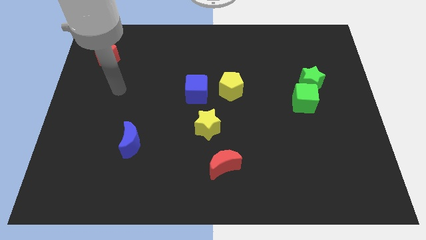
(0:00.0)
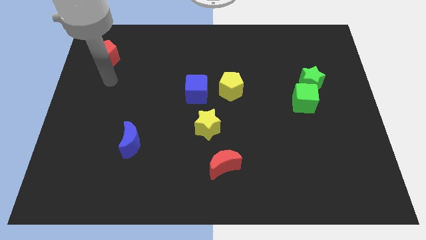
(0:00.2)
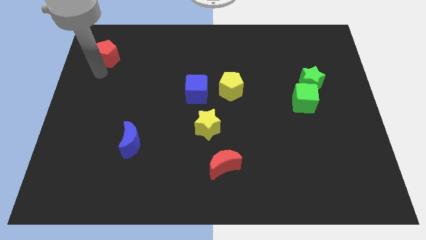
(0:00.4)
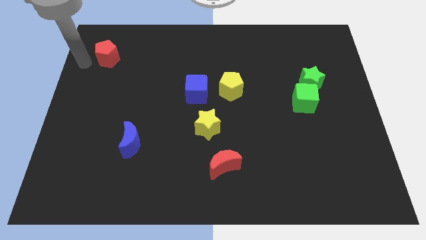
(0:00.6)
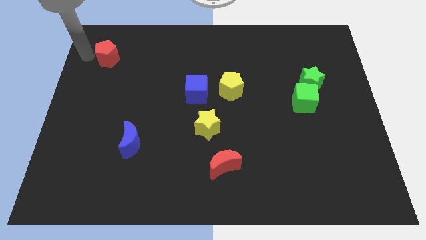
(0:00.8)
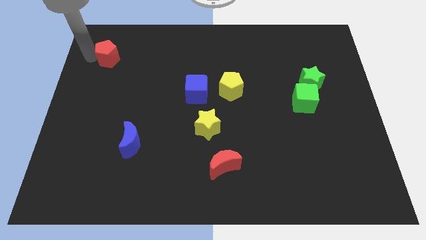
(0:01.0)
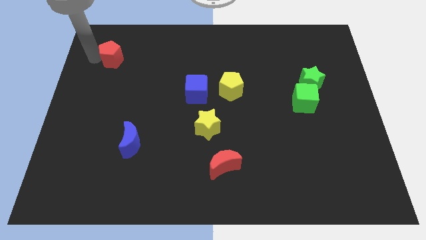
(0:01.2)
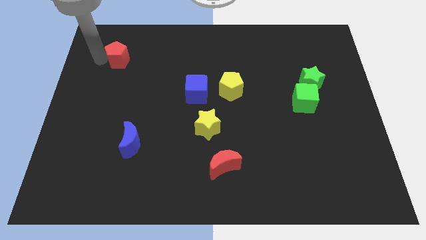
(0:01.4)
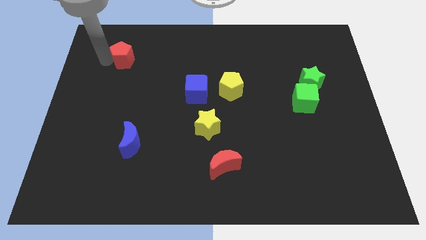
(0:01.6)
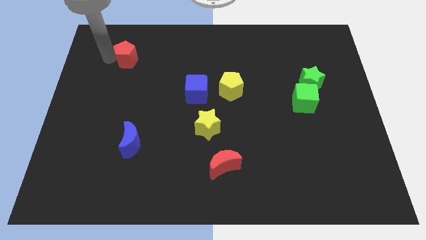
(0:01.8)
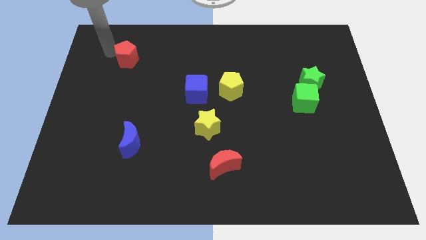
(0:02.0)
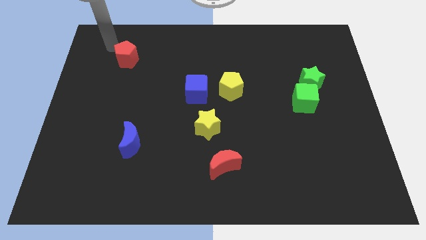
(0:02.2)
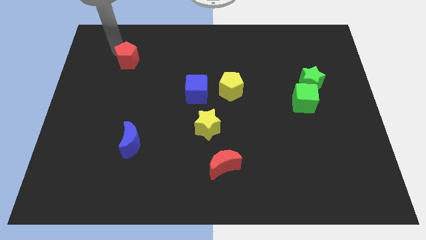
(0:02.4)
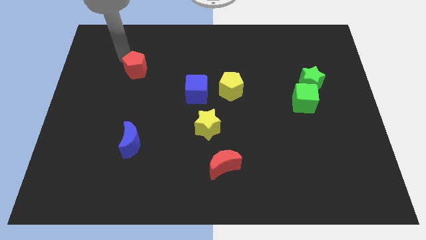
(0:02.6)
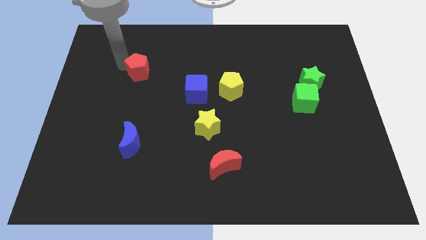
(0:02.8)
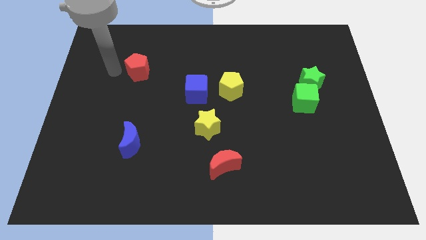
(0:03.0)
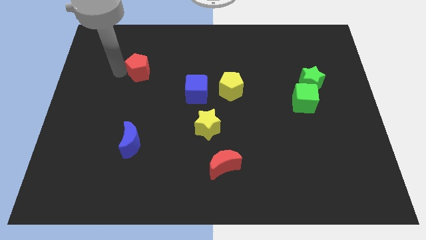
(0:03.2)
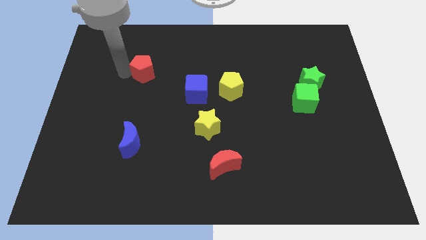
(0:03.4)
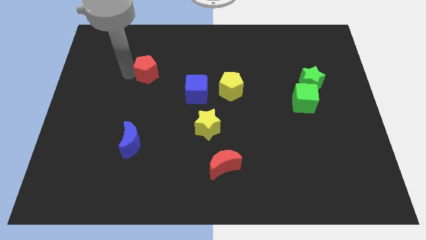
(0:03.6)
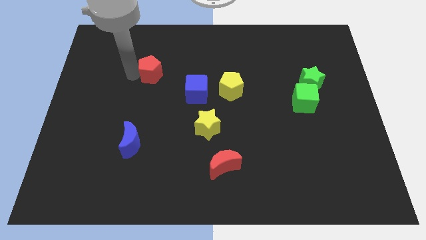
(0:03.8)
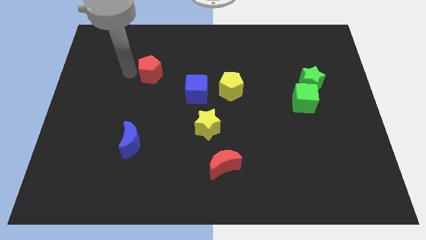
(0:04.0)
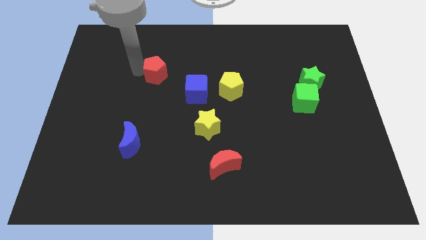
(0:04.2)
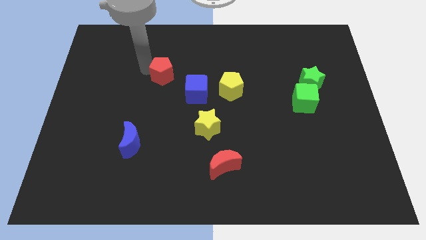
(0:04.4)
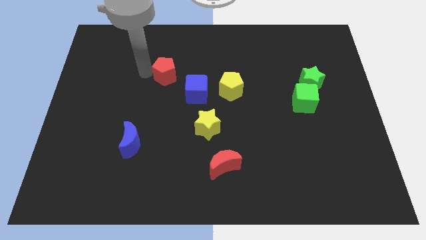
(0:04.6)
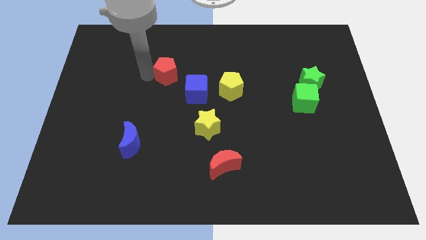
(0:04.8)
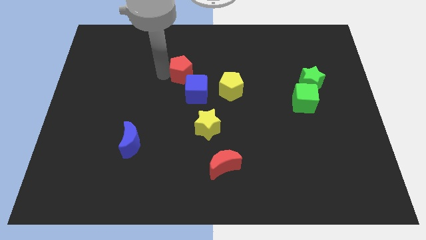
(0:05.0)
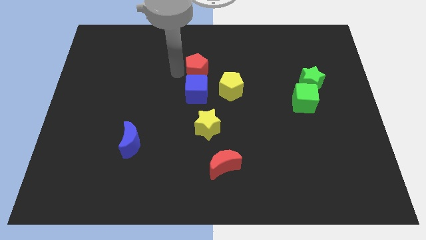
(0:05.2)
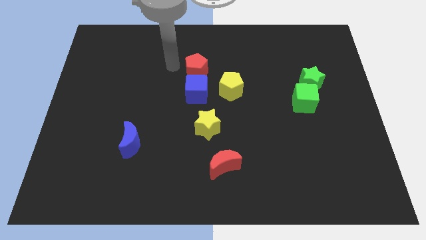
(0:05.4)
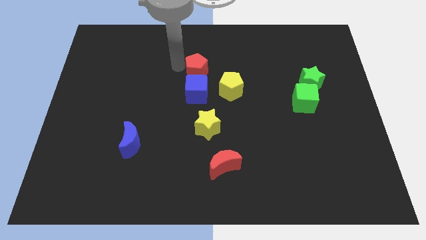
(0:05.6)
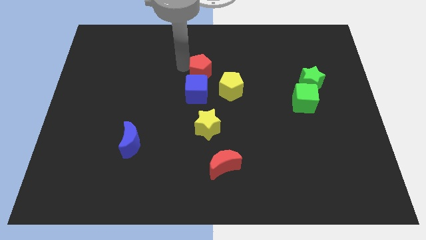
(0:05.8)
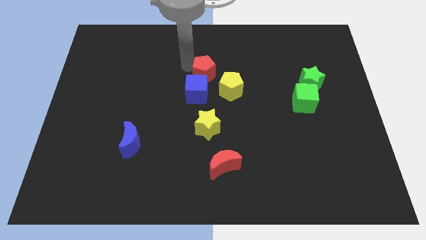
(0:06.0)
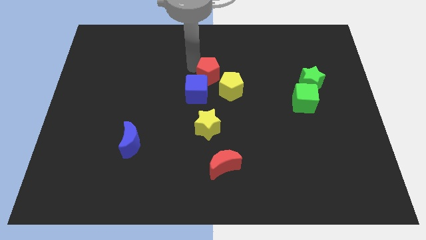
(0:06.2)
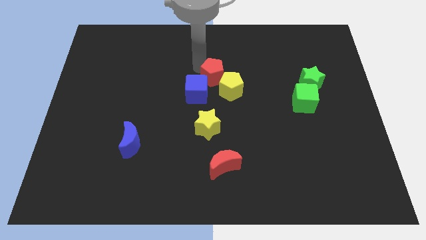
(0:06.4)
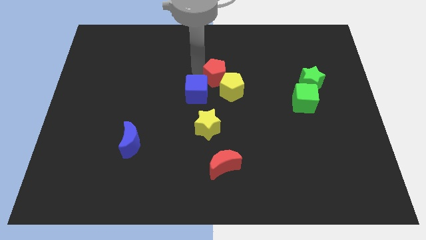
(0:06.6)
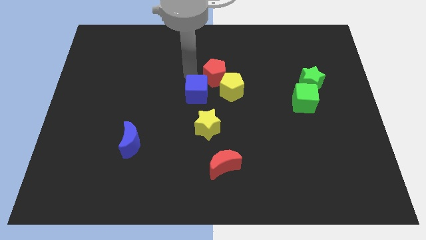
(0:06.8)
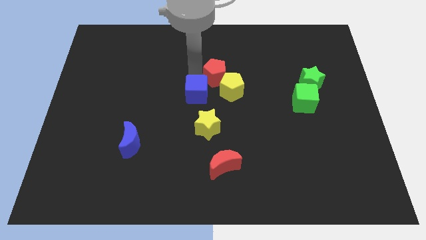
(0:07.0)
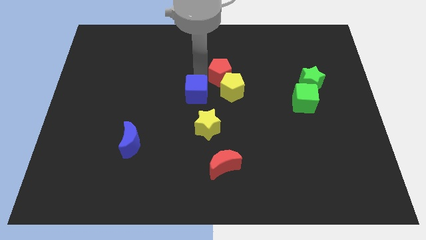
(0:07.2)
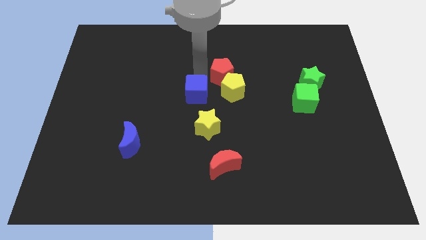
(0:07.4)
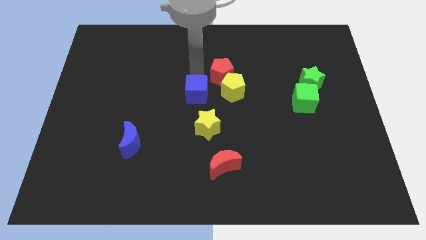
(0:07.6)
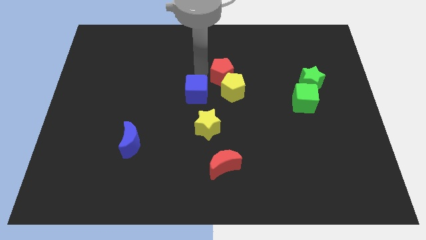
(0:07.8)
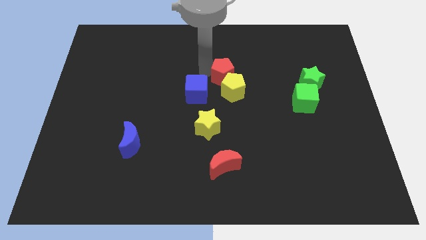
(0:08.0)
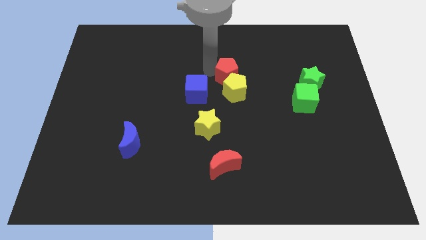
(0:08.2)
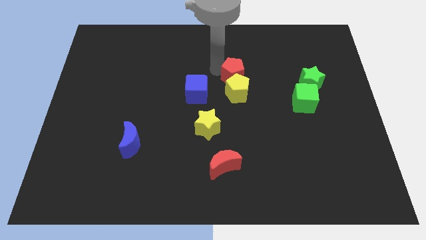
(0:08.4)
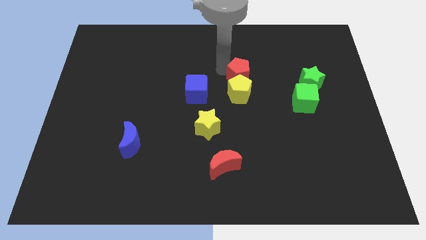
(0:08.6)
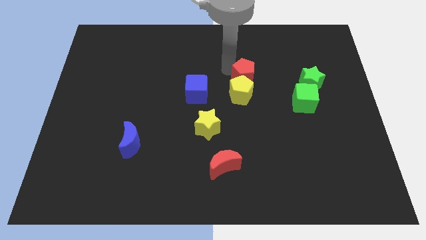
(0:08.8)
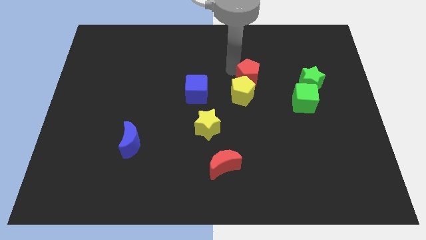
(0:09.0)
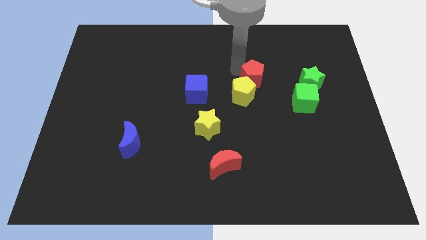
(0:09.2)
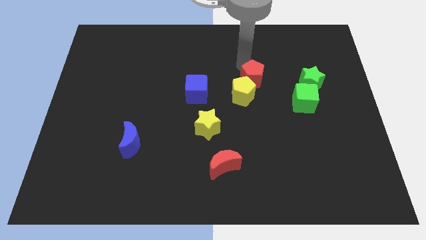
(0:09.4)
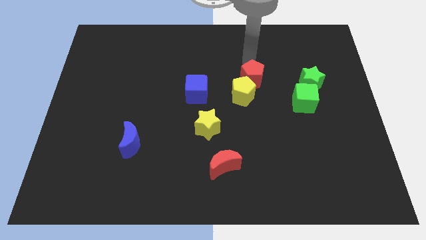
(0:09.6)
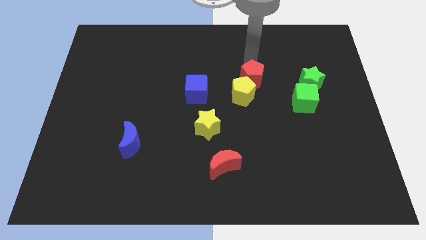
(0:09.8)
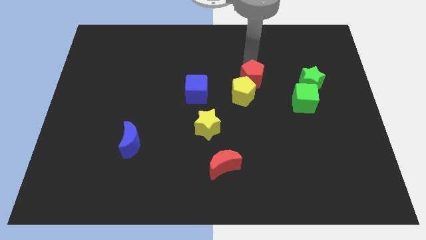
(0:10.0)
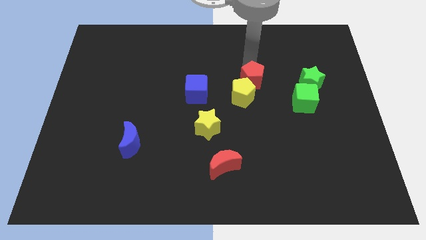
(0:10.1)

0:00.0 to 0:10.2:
put the red pentagon to the right of the blue cube

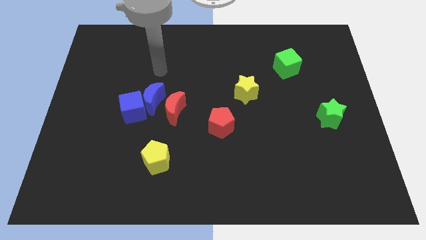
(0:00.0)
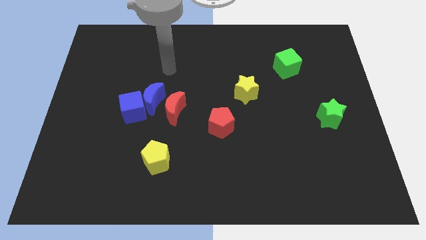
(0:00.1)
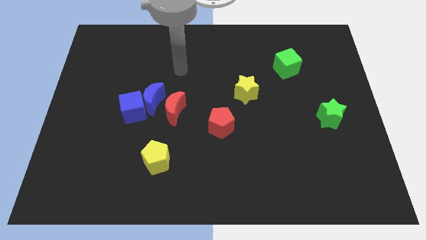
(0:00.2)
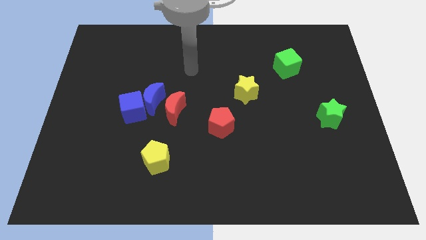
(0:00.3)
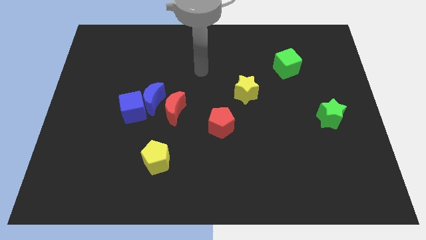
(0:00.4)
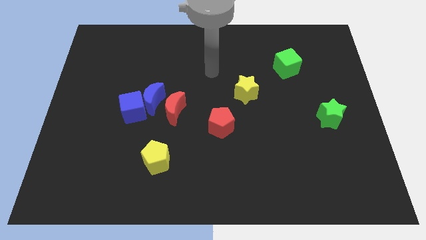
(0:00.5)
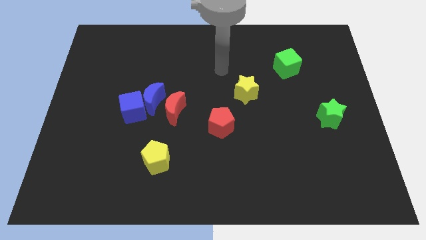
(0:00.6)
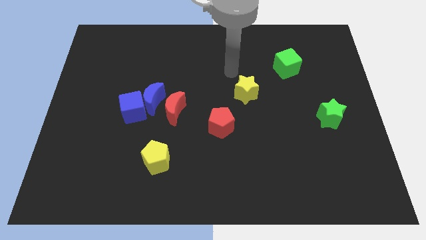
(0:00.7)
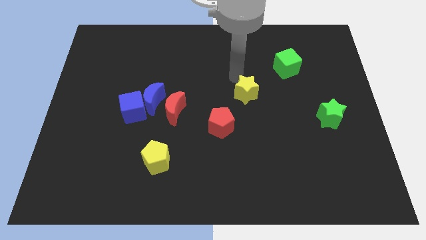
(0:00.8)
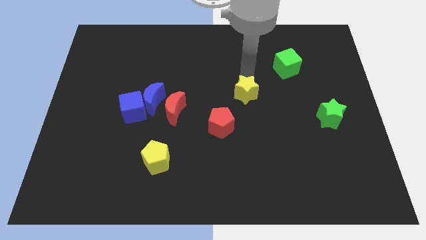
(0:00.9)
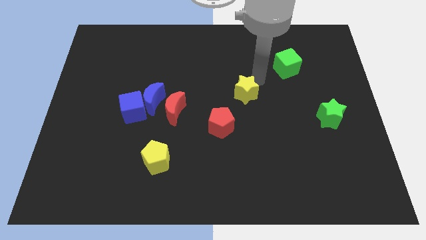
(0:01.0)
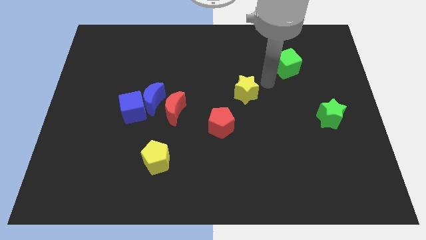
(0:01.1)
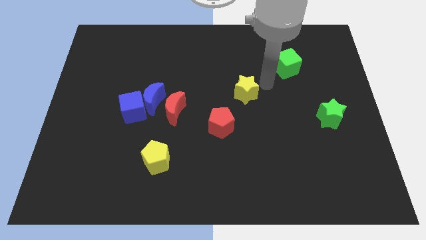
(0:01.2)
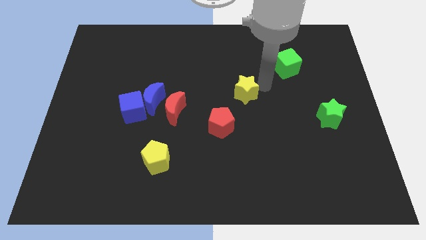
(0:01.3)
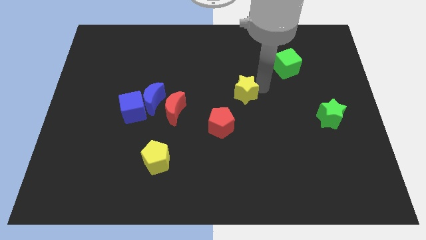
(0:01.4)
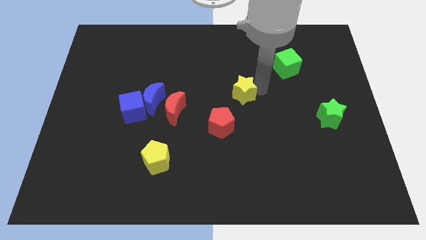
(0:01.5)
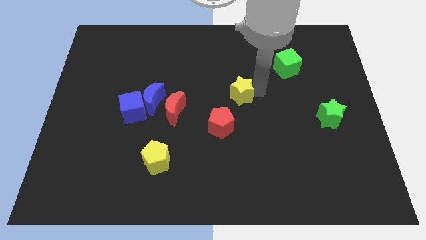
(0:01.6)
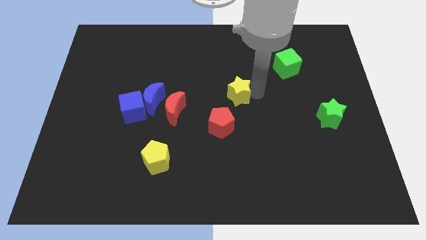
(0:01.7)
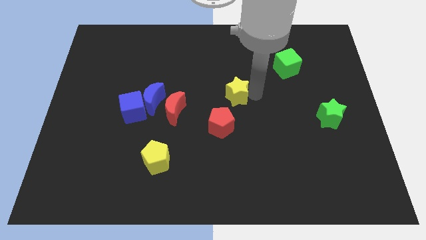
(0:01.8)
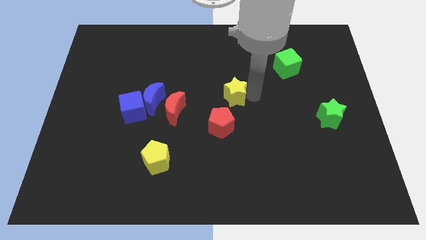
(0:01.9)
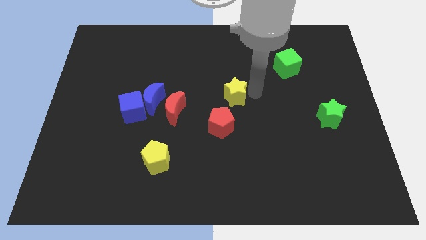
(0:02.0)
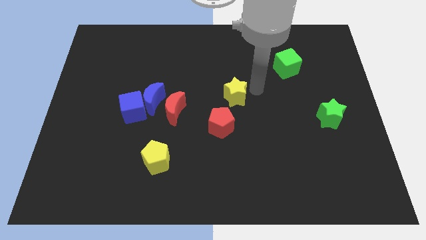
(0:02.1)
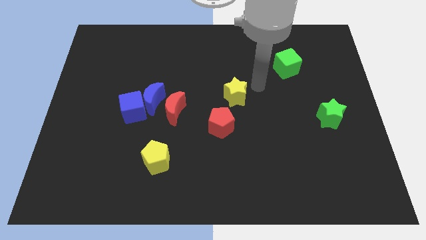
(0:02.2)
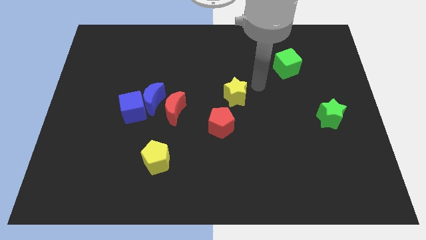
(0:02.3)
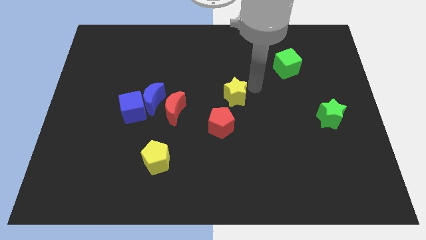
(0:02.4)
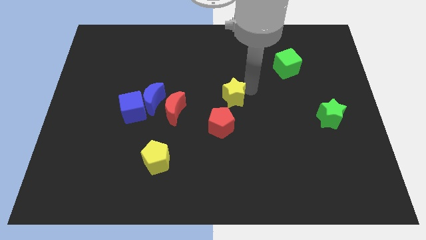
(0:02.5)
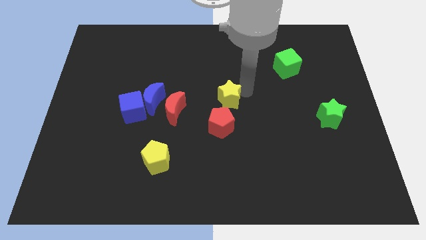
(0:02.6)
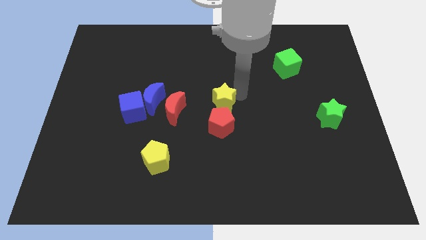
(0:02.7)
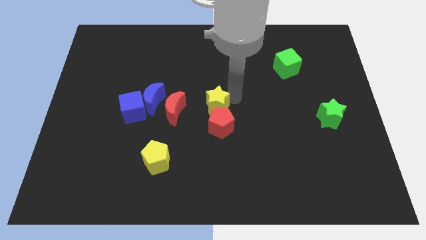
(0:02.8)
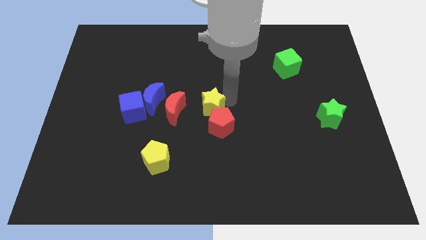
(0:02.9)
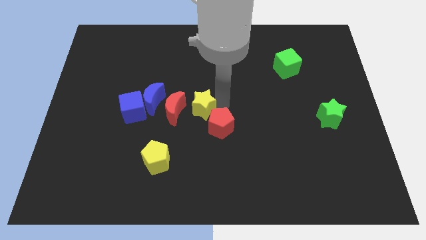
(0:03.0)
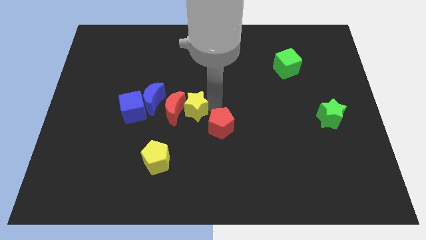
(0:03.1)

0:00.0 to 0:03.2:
slide the yellow star just right of the blue cube
